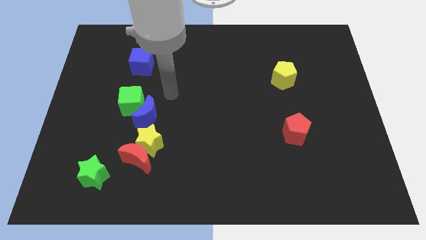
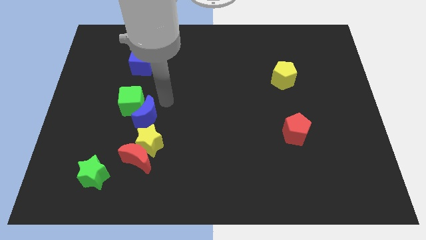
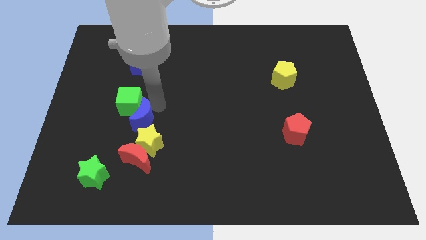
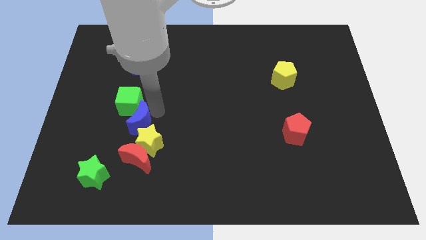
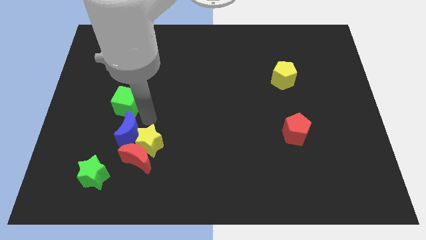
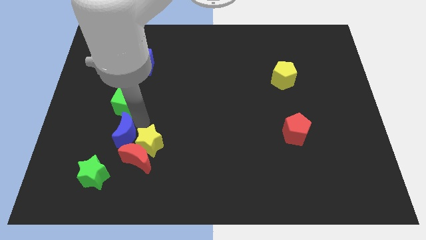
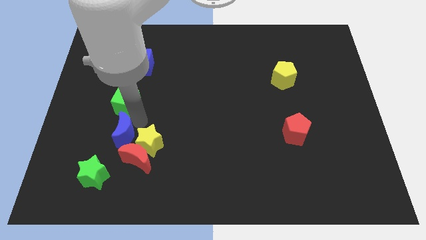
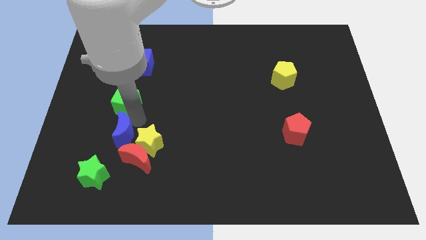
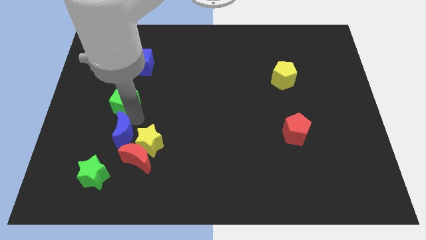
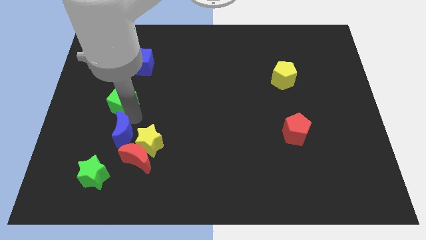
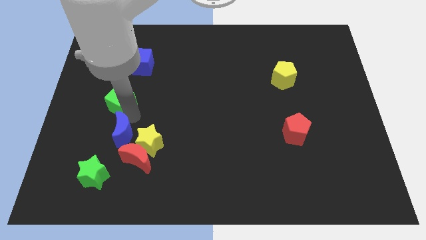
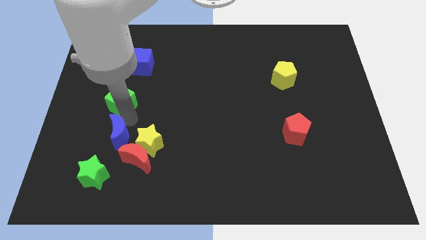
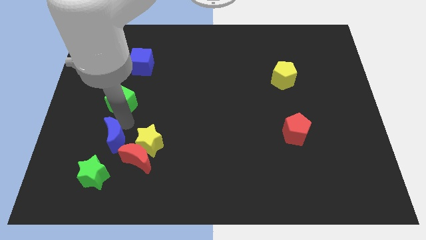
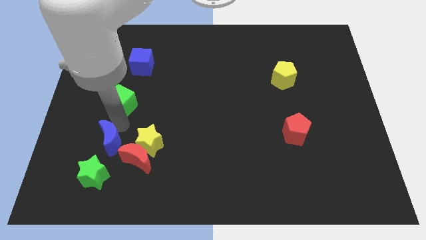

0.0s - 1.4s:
move the green cube away from the blue moon

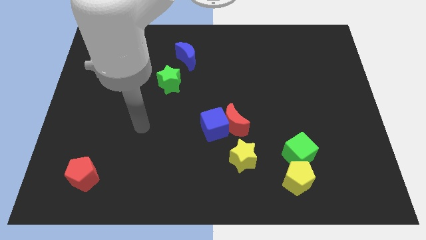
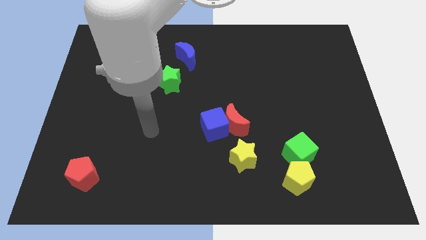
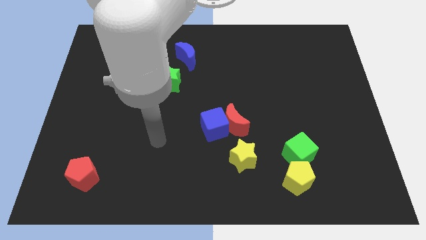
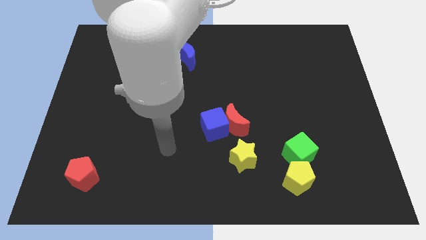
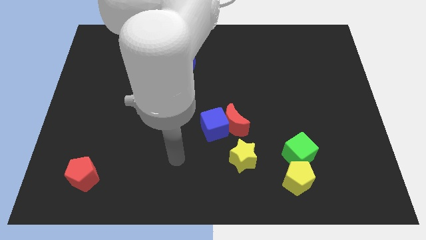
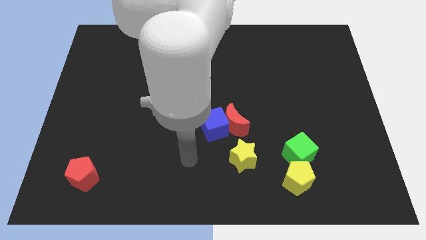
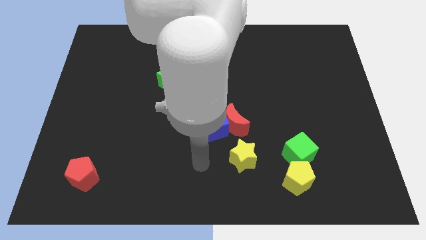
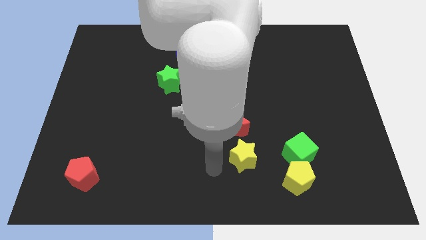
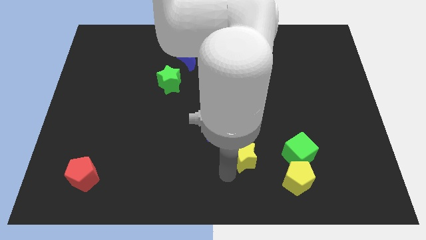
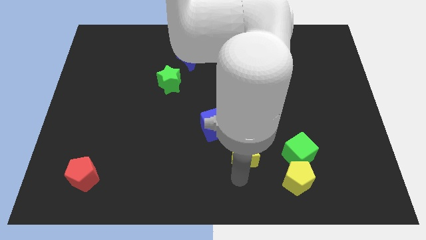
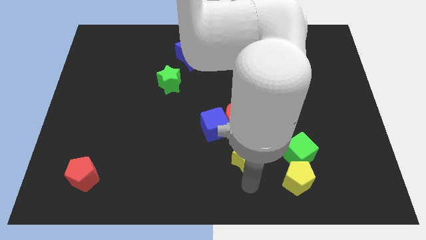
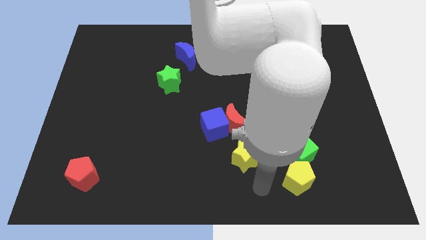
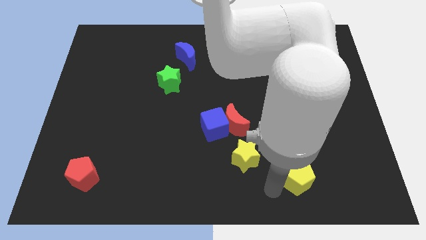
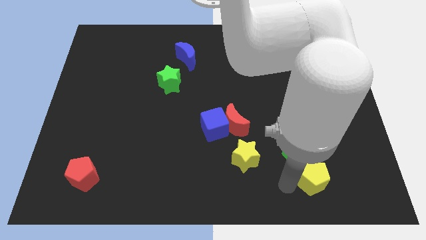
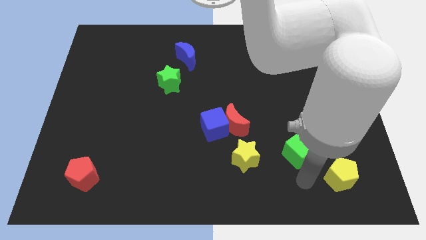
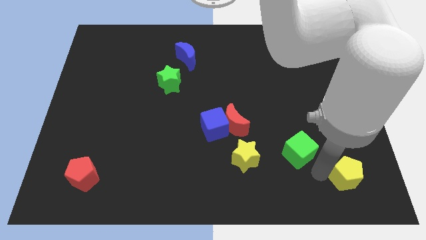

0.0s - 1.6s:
separate the green cube from the yellow pentagon

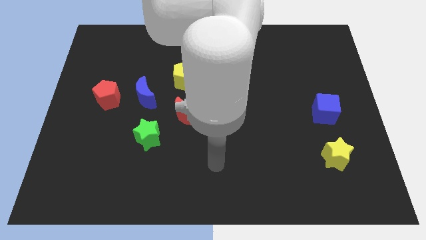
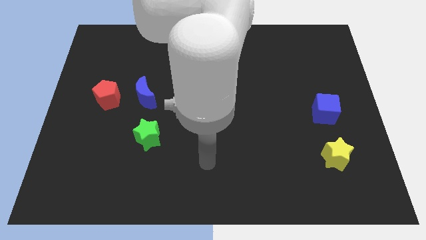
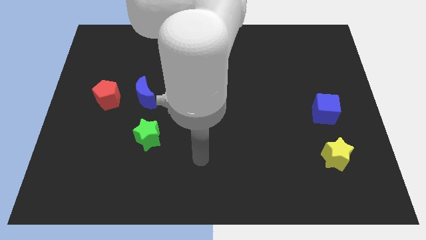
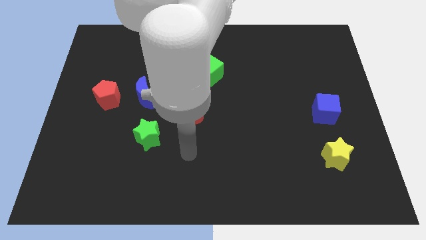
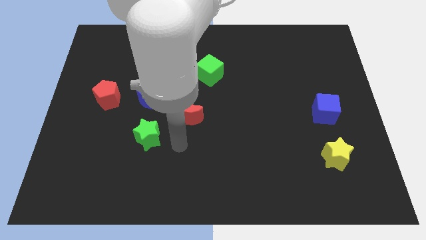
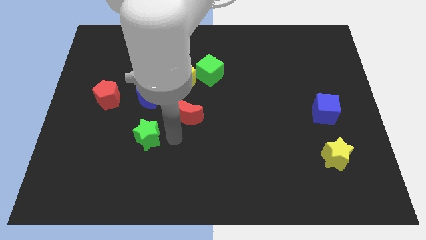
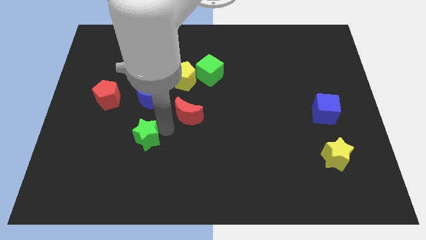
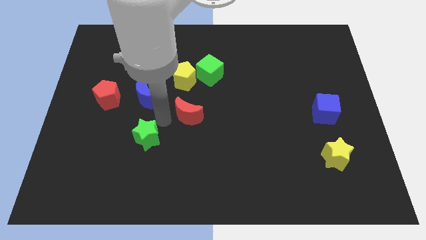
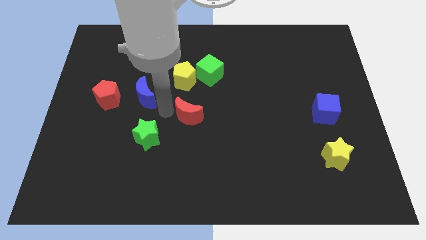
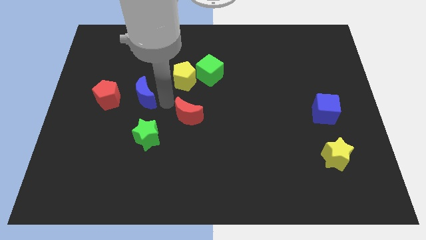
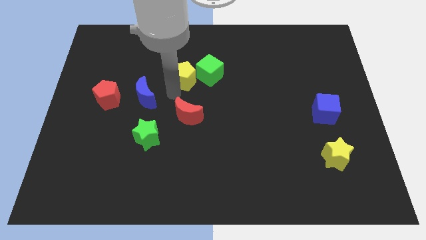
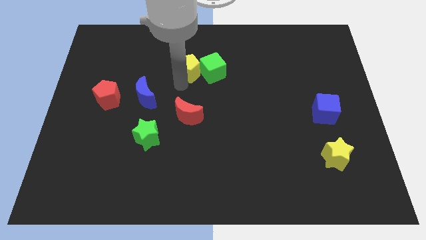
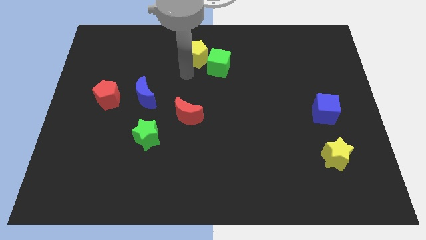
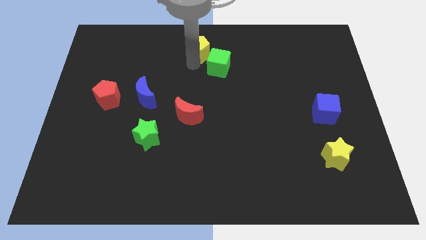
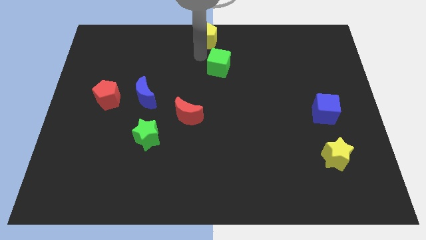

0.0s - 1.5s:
pull the green cube apart from the yellow pentagon

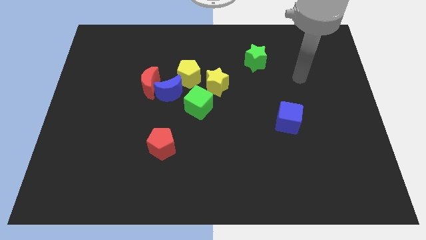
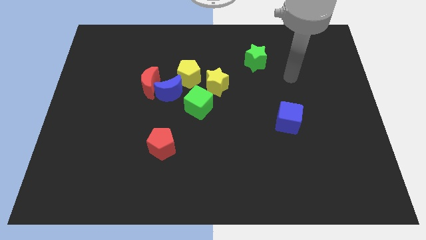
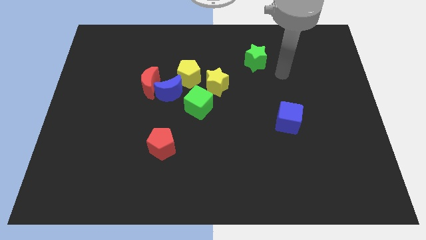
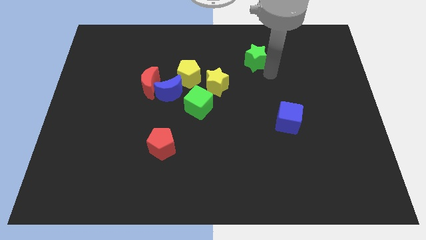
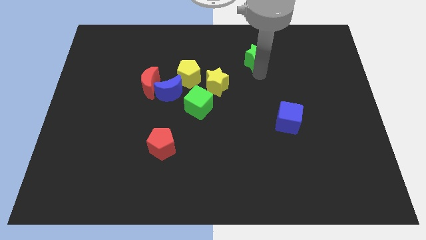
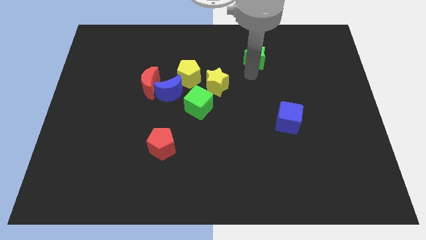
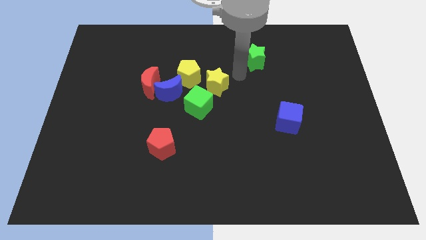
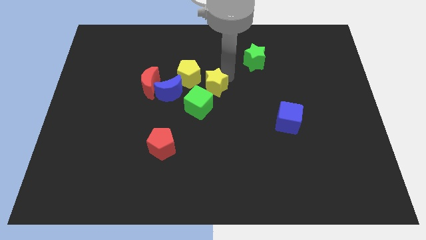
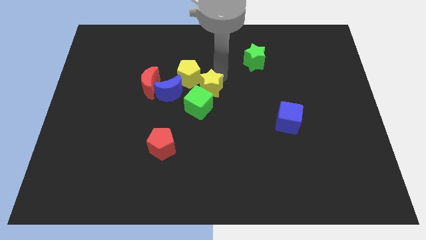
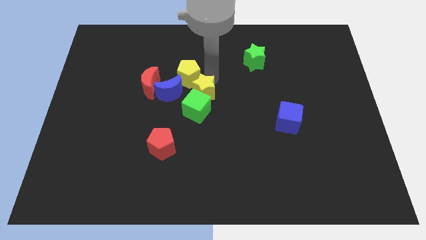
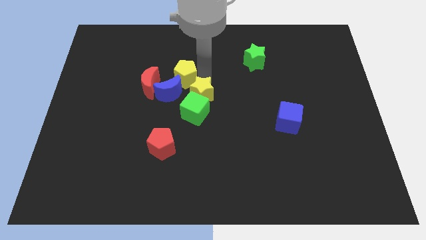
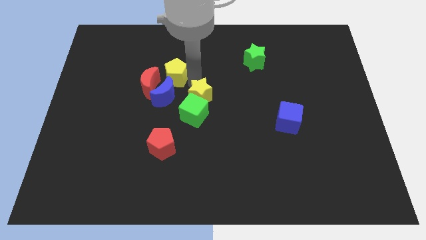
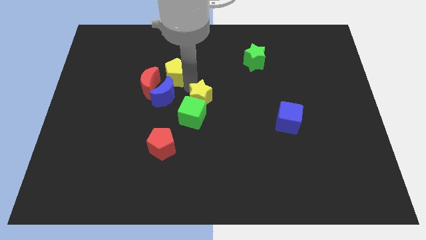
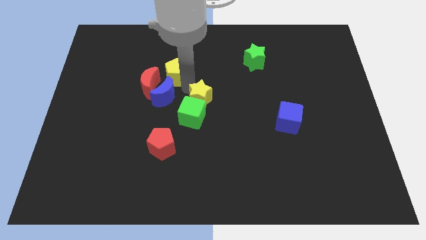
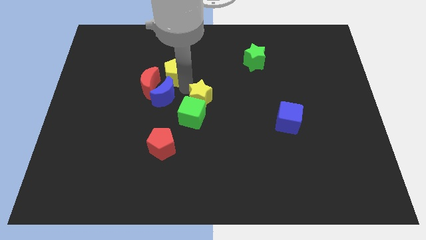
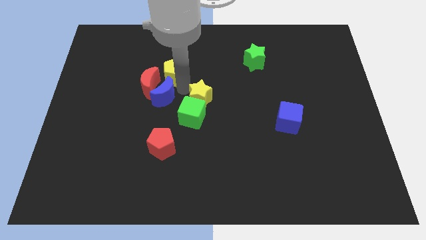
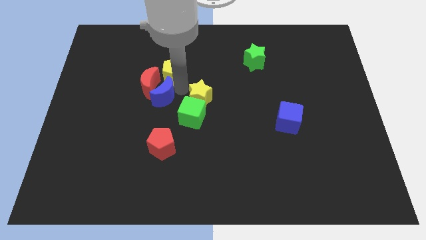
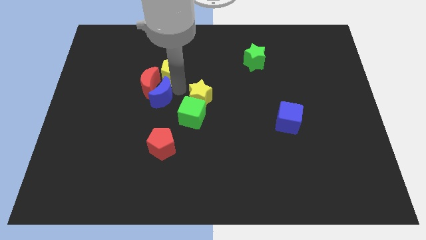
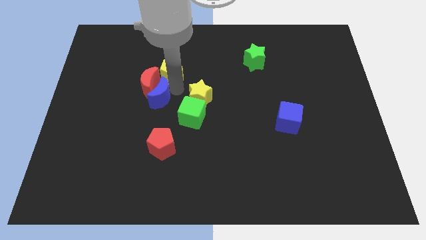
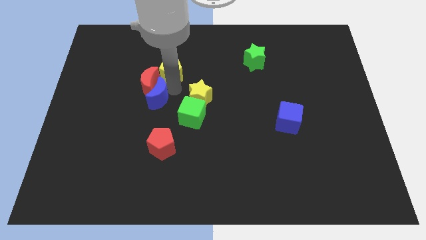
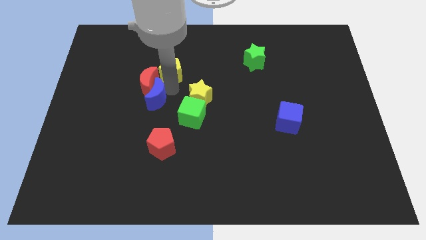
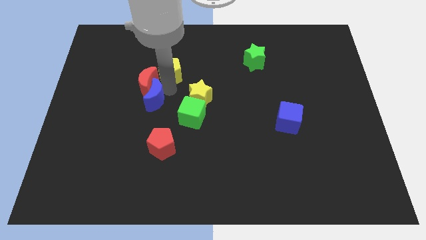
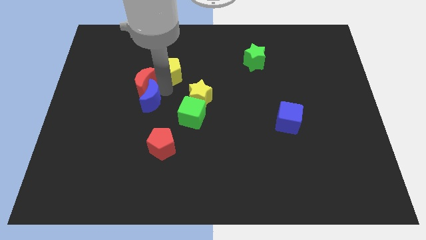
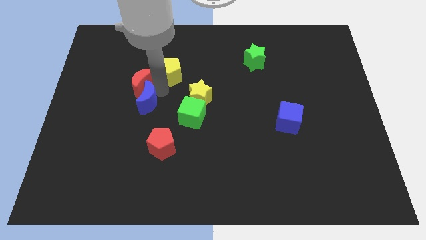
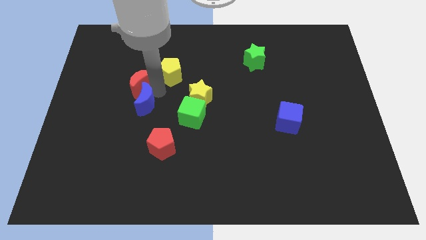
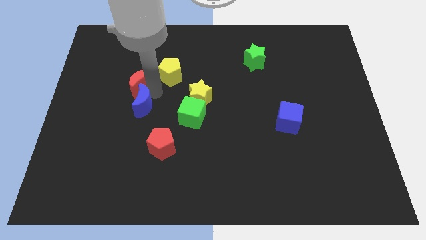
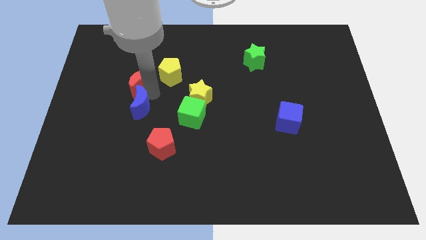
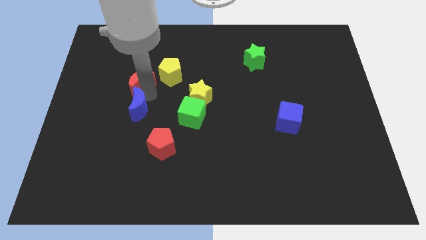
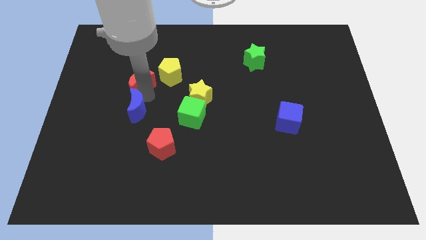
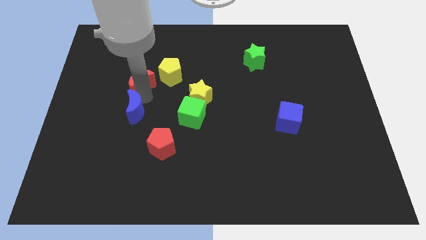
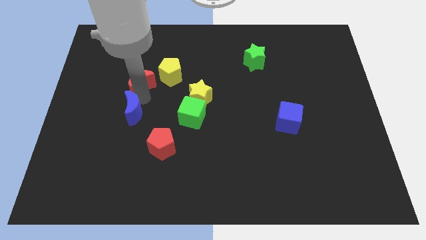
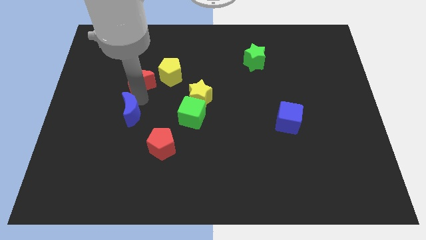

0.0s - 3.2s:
separate the blue moon from the clump

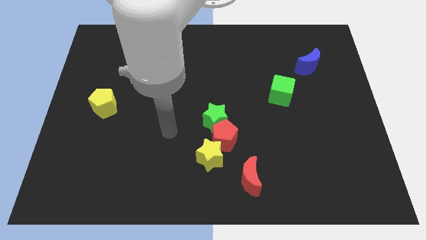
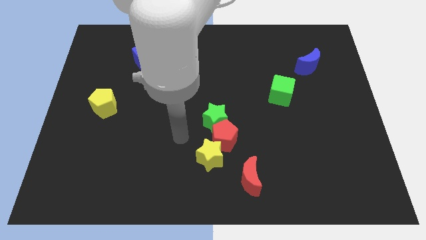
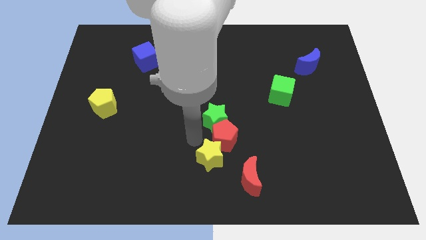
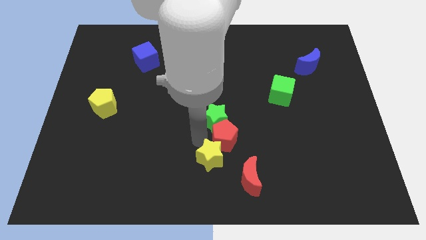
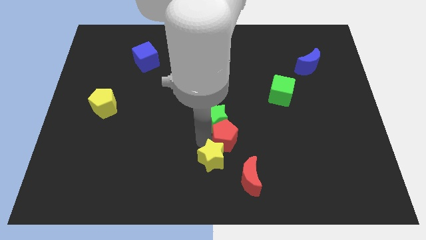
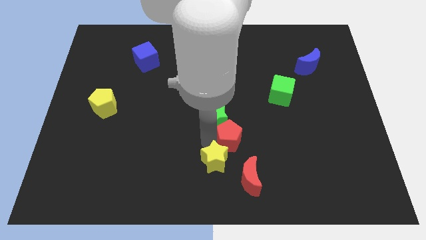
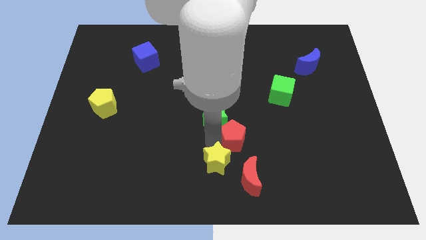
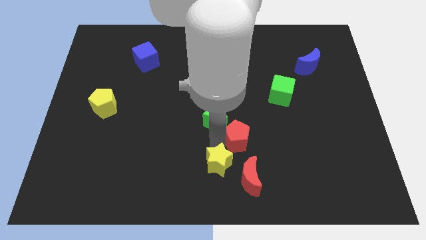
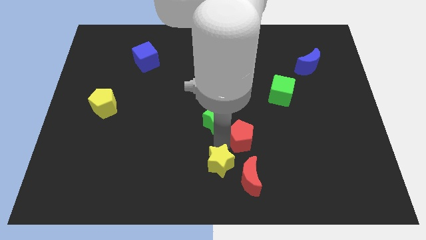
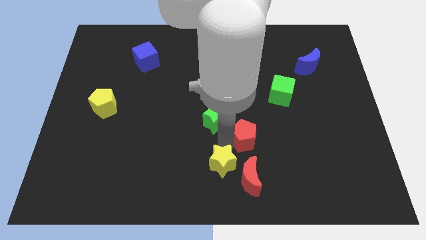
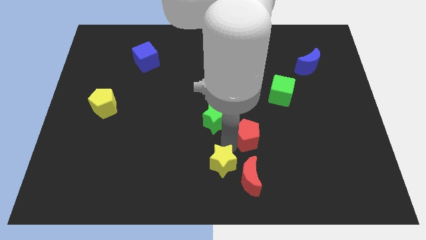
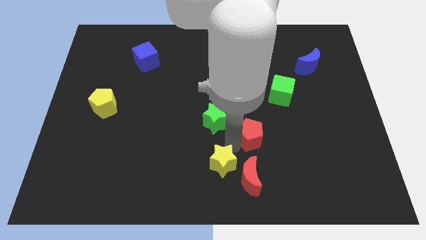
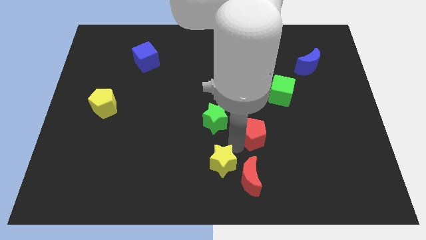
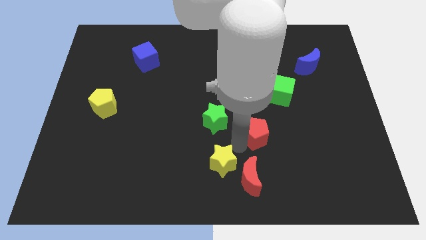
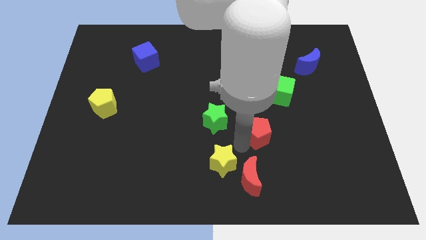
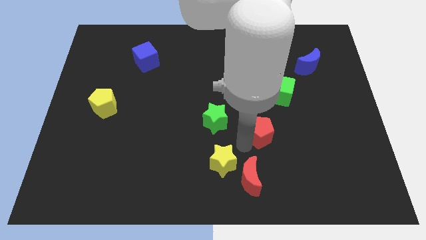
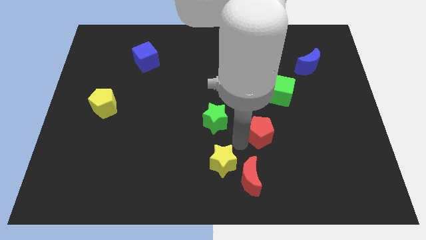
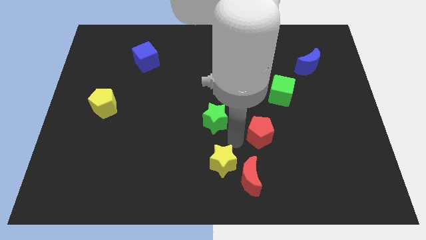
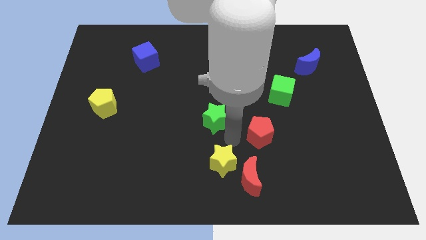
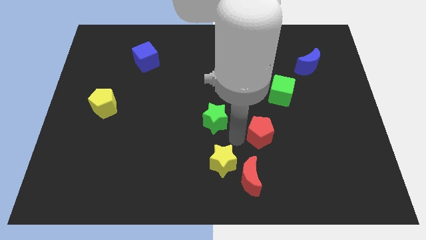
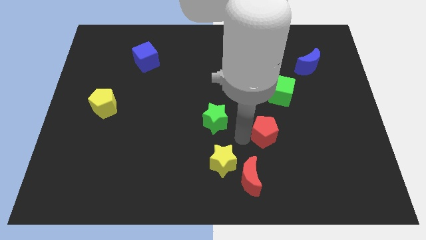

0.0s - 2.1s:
separate the red pentagon from the green star and yellow star
